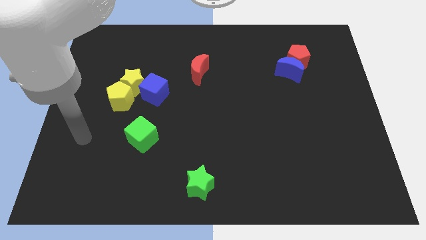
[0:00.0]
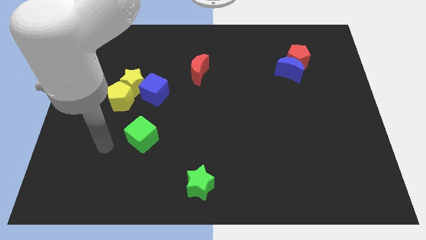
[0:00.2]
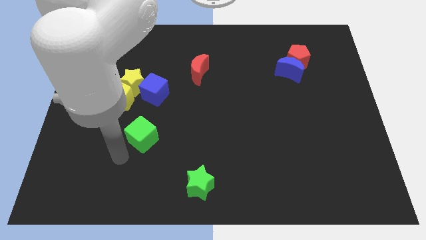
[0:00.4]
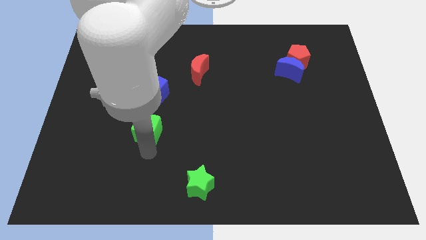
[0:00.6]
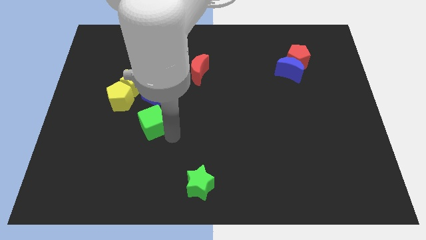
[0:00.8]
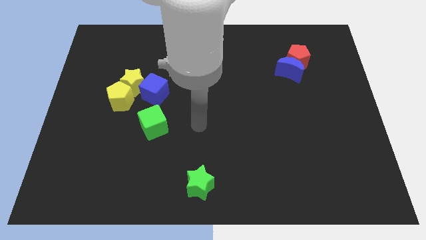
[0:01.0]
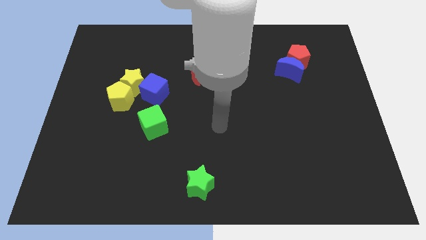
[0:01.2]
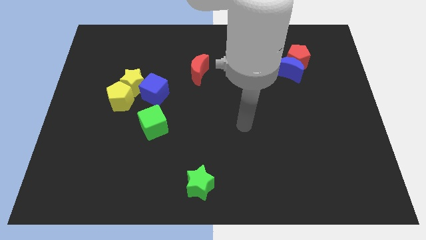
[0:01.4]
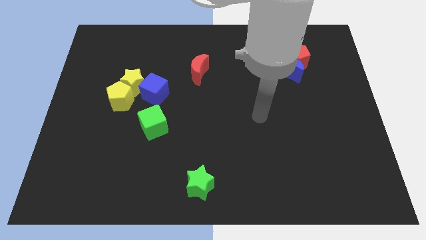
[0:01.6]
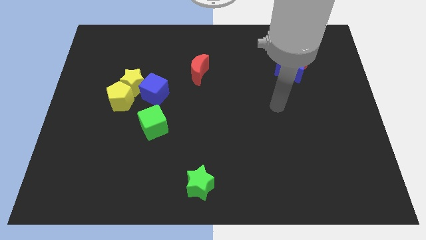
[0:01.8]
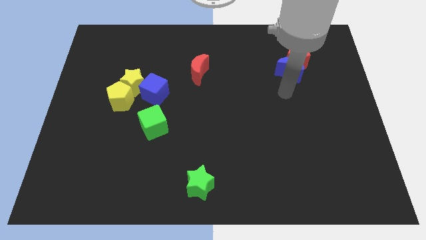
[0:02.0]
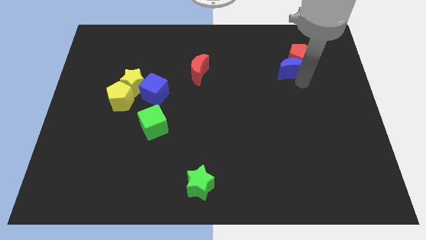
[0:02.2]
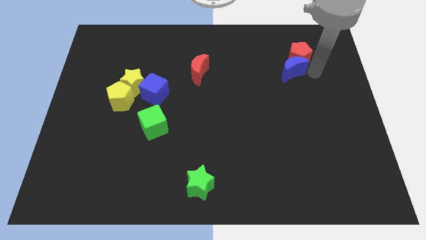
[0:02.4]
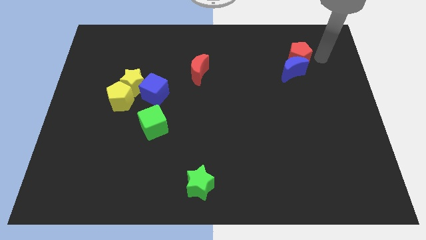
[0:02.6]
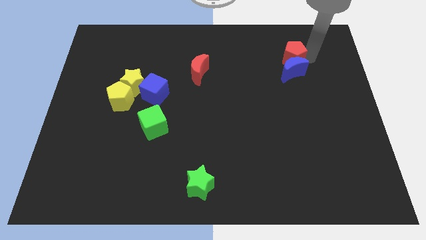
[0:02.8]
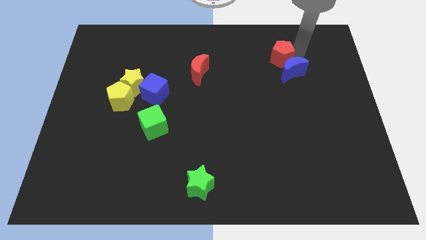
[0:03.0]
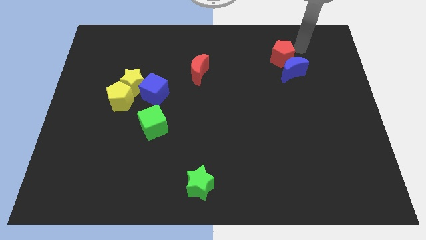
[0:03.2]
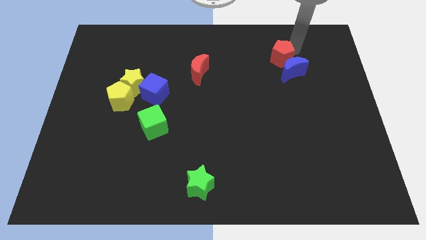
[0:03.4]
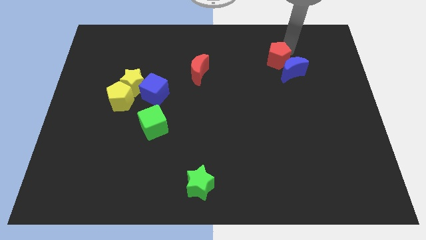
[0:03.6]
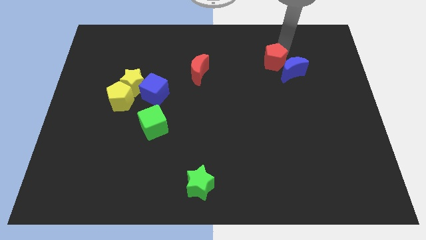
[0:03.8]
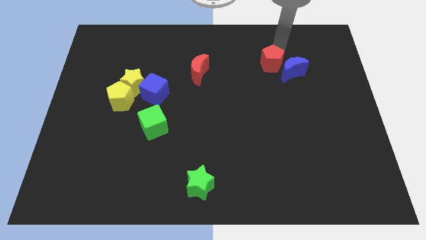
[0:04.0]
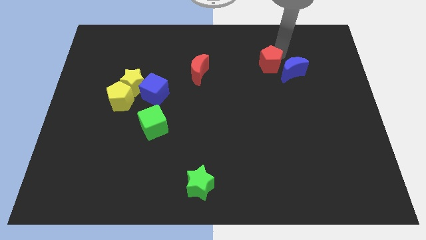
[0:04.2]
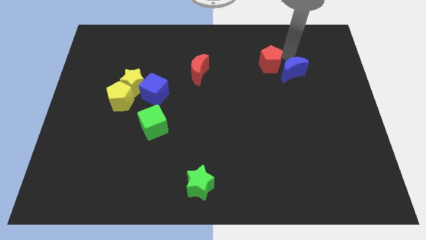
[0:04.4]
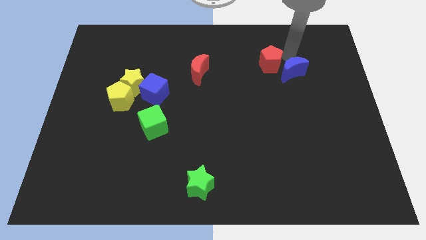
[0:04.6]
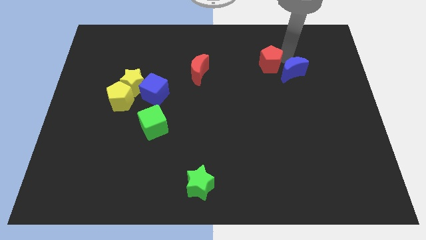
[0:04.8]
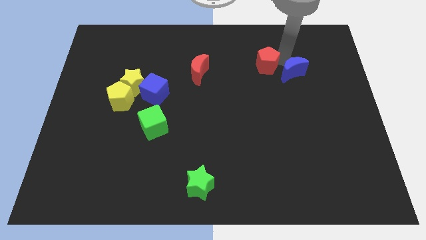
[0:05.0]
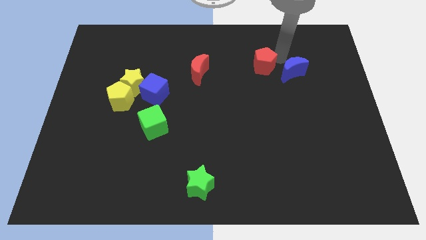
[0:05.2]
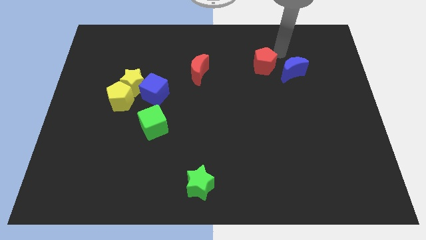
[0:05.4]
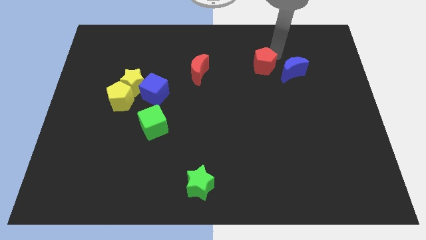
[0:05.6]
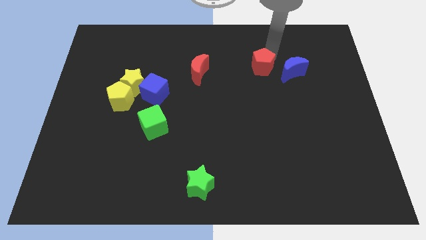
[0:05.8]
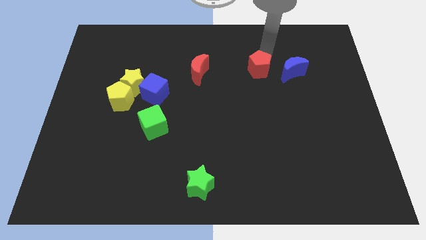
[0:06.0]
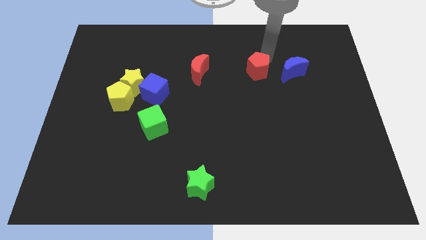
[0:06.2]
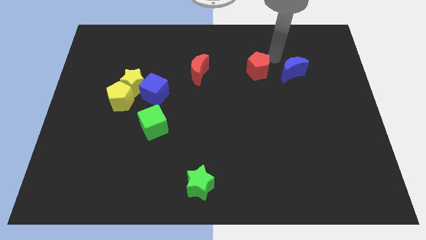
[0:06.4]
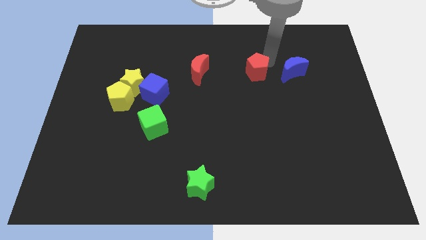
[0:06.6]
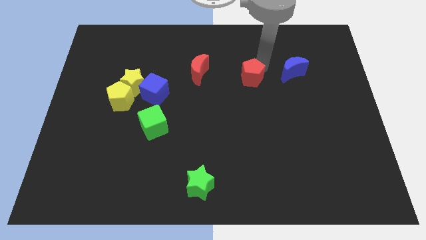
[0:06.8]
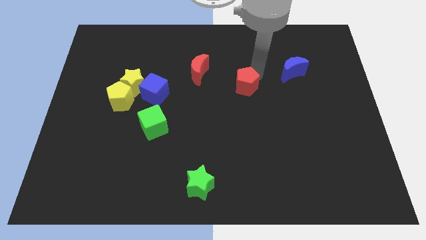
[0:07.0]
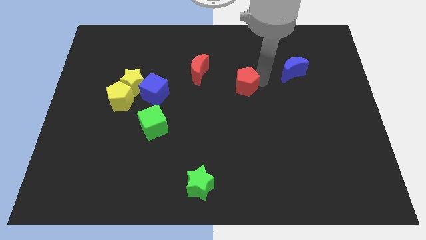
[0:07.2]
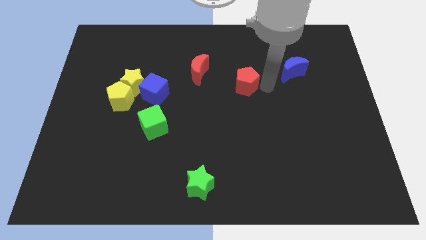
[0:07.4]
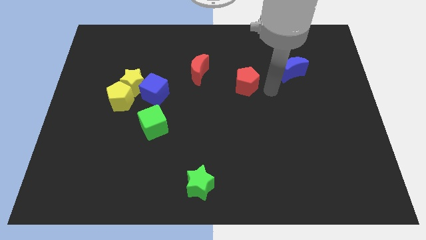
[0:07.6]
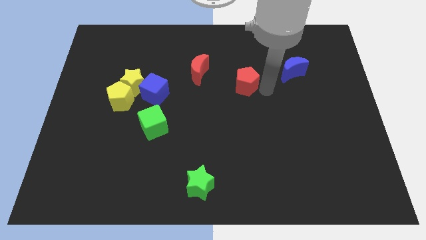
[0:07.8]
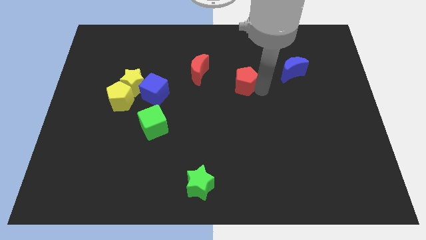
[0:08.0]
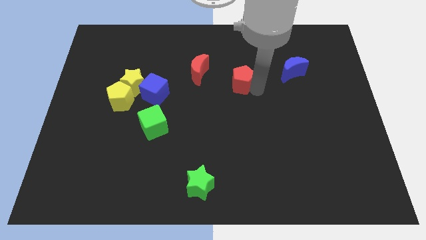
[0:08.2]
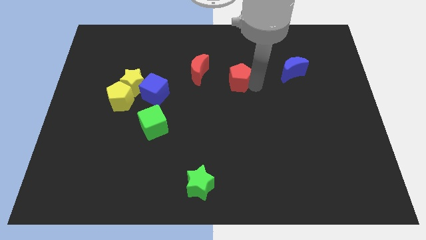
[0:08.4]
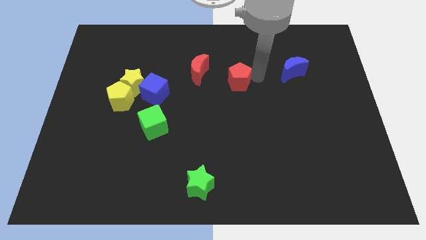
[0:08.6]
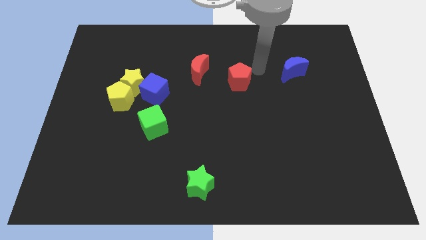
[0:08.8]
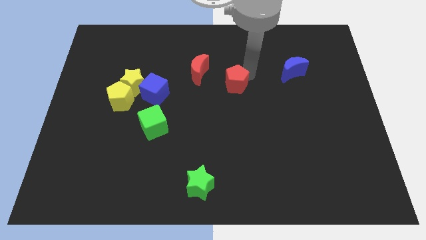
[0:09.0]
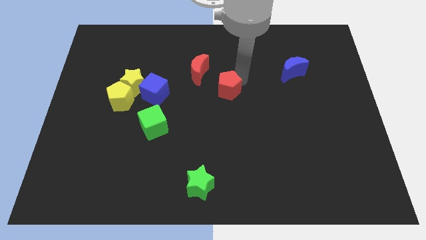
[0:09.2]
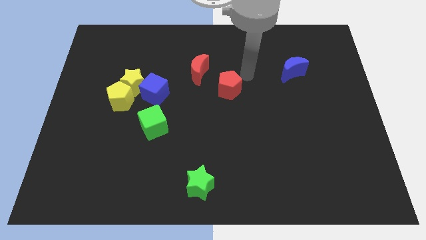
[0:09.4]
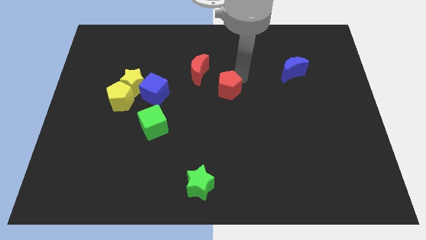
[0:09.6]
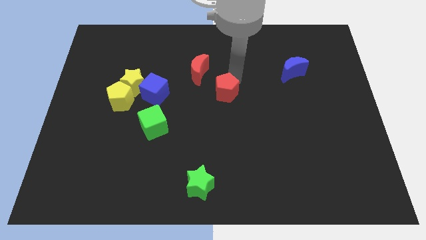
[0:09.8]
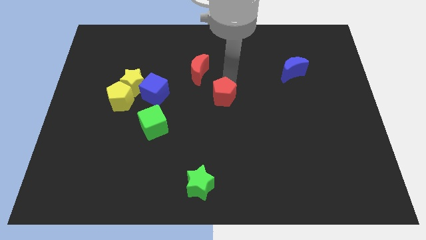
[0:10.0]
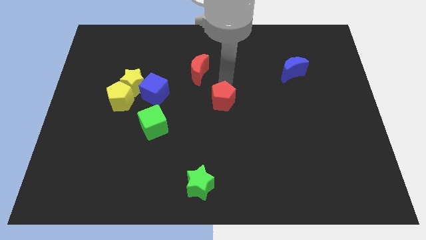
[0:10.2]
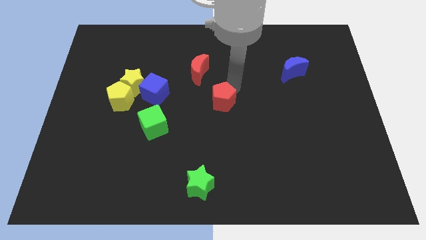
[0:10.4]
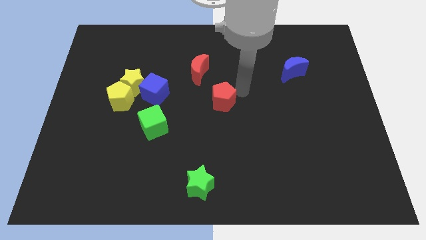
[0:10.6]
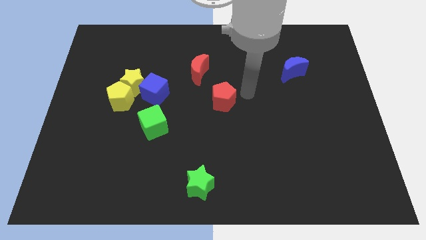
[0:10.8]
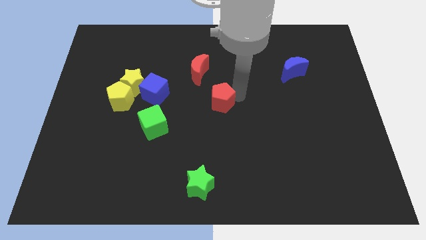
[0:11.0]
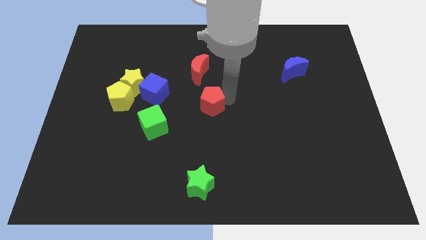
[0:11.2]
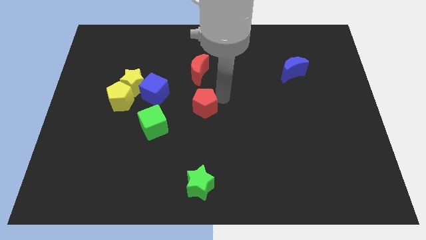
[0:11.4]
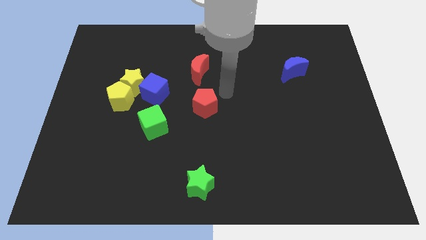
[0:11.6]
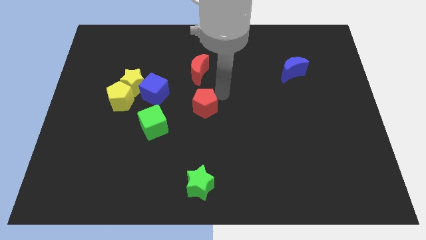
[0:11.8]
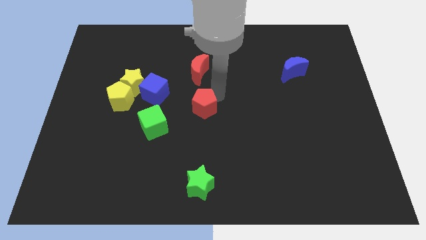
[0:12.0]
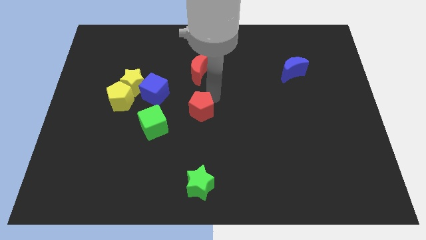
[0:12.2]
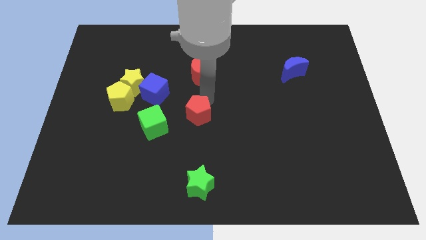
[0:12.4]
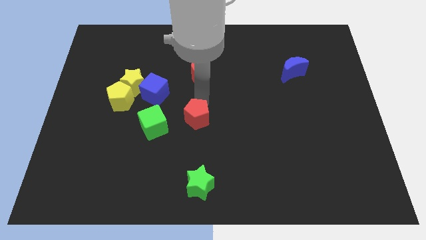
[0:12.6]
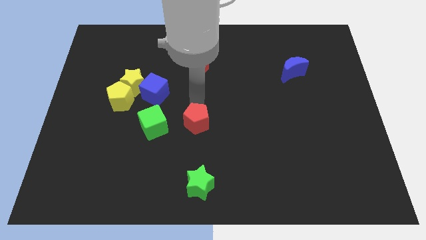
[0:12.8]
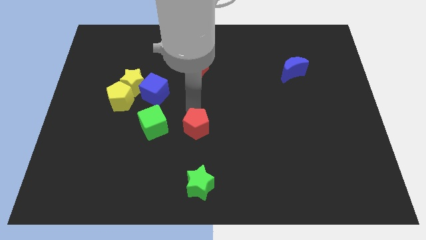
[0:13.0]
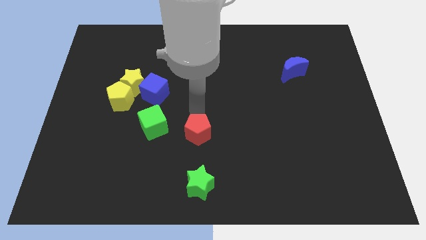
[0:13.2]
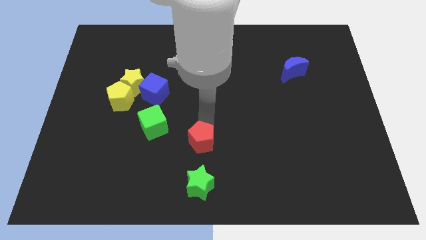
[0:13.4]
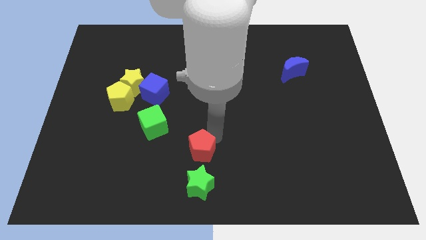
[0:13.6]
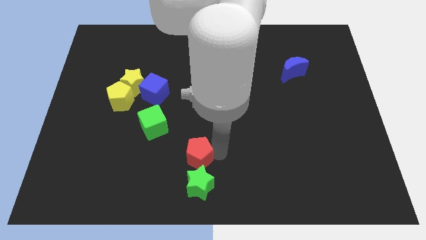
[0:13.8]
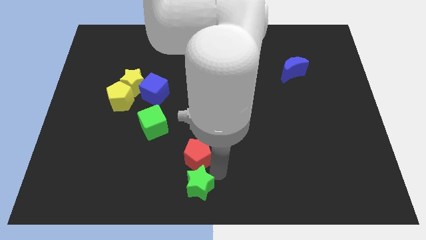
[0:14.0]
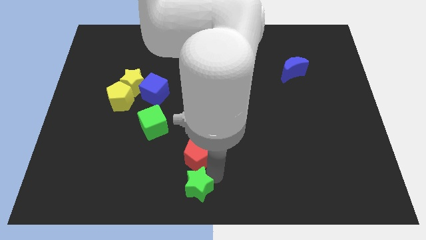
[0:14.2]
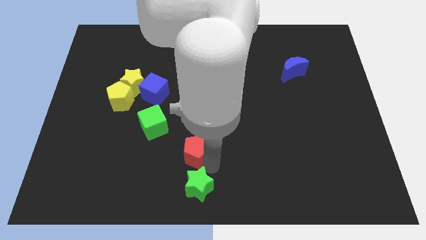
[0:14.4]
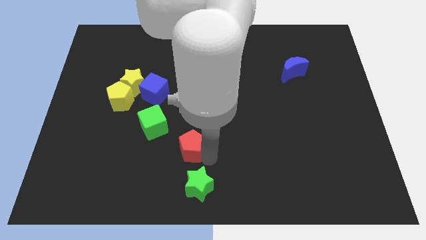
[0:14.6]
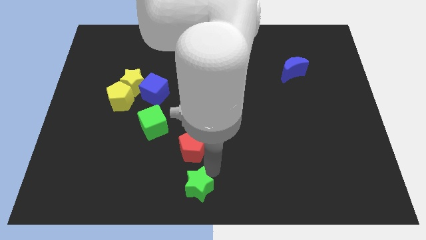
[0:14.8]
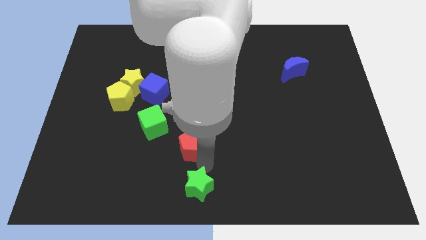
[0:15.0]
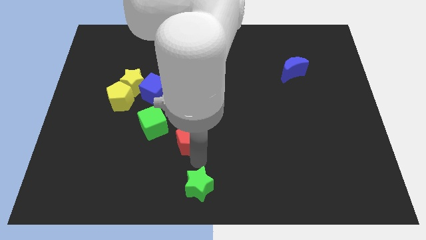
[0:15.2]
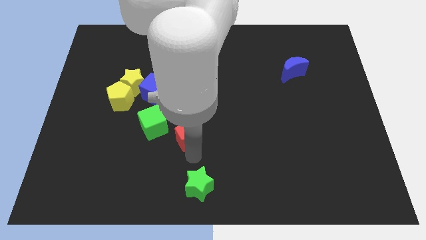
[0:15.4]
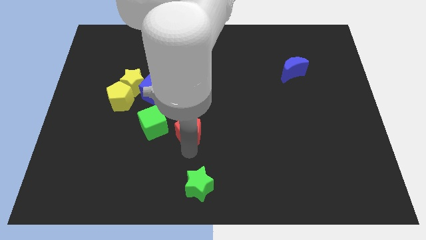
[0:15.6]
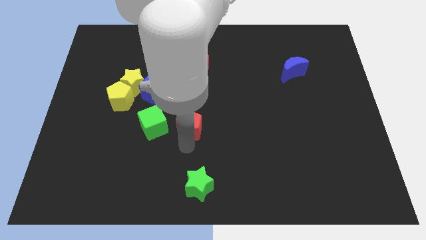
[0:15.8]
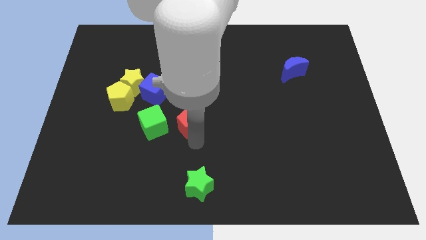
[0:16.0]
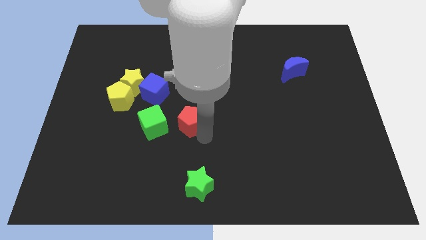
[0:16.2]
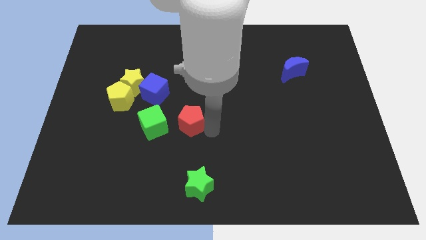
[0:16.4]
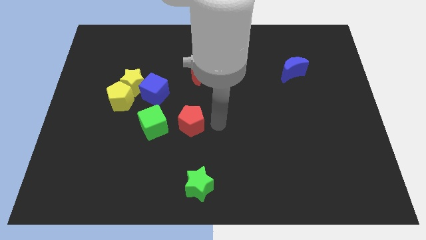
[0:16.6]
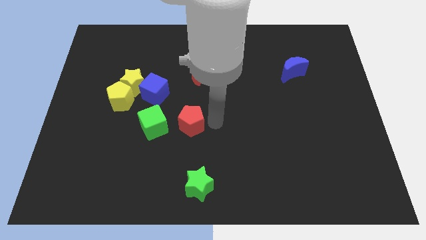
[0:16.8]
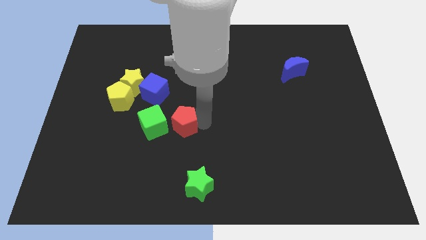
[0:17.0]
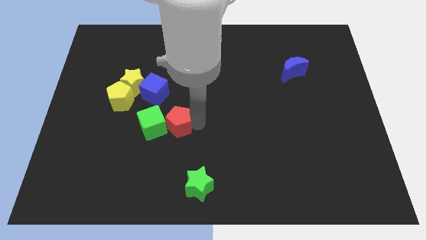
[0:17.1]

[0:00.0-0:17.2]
move the red pentagon to the green cube
